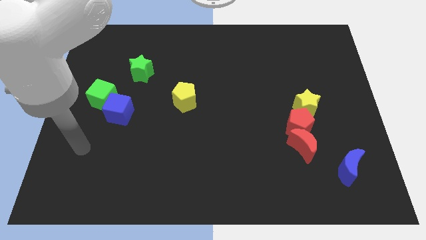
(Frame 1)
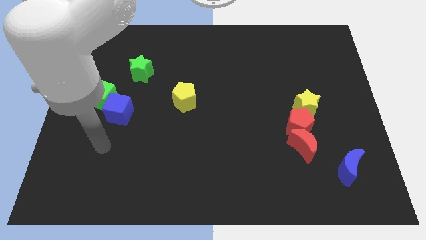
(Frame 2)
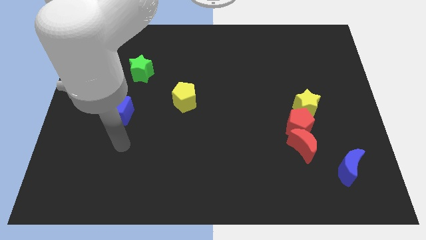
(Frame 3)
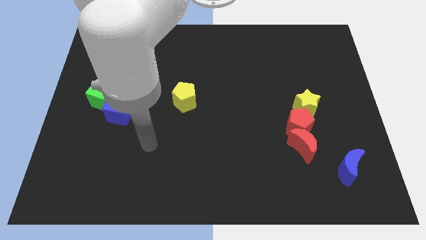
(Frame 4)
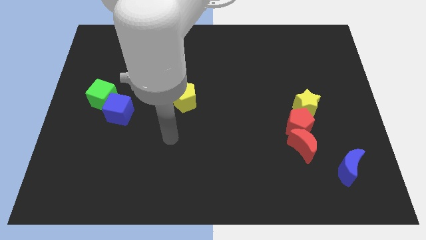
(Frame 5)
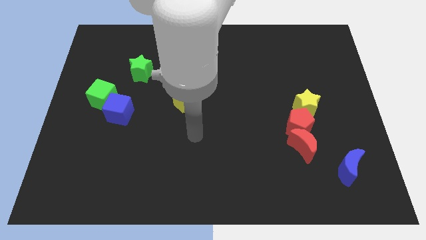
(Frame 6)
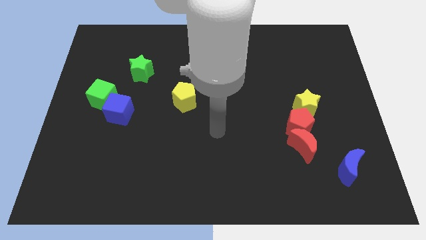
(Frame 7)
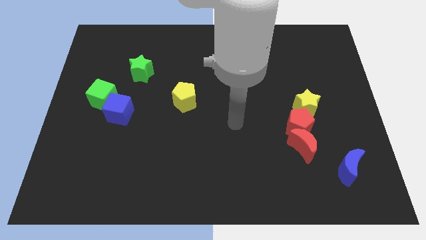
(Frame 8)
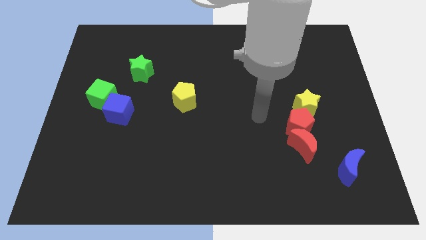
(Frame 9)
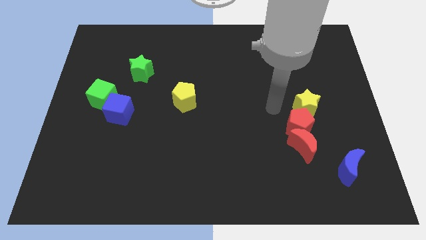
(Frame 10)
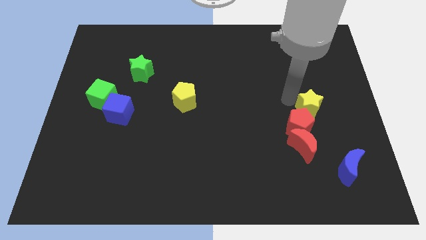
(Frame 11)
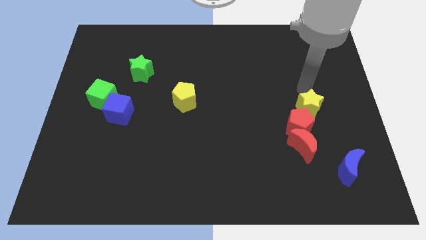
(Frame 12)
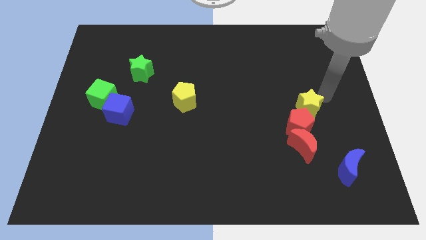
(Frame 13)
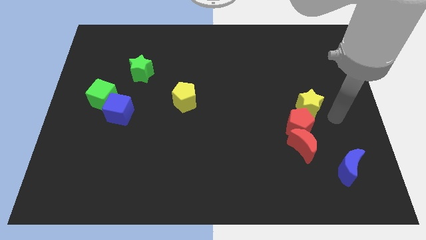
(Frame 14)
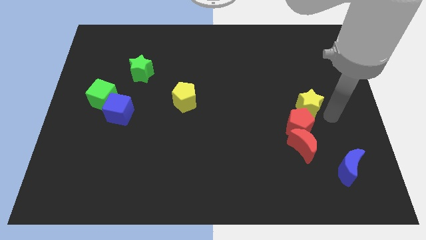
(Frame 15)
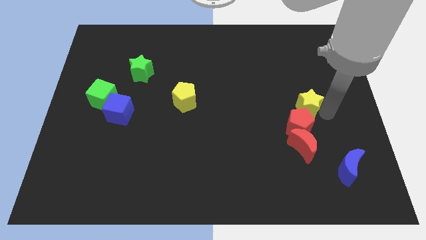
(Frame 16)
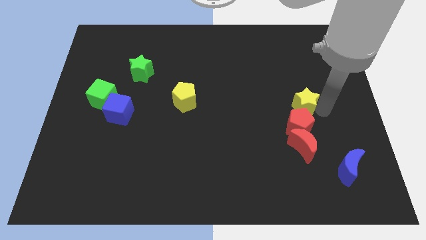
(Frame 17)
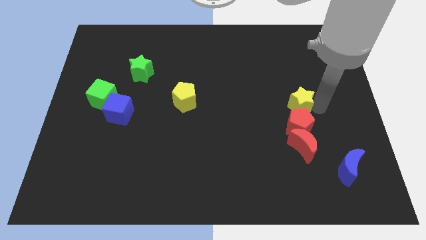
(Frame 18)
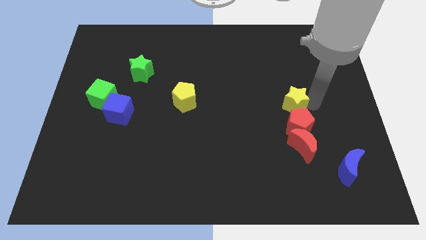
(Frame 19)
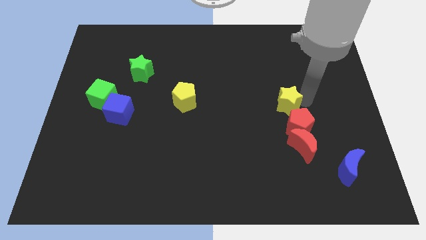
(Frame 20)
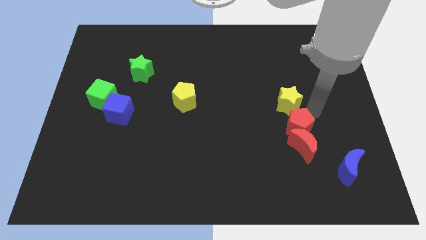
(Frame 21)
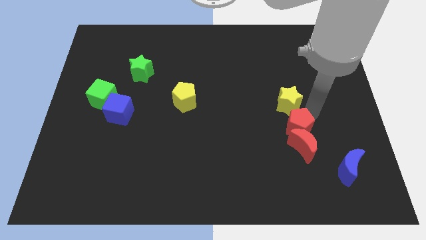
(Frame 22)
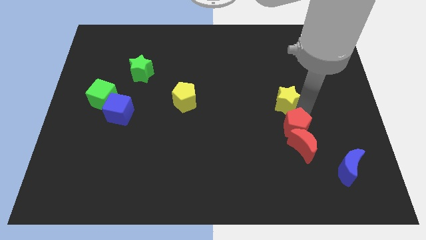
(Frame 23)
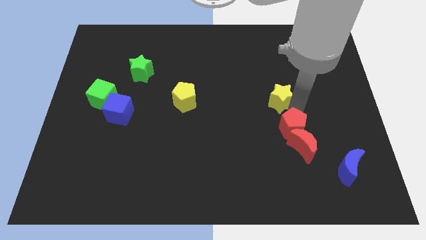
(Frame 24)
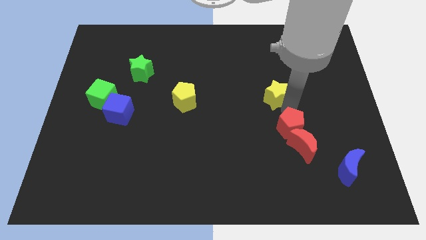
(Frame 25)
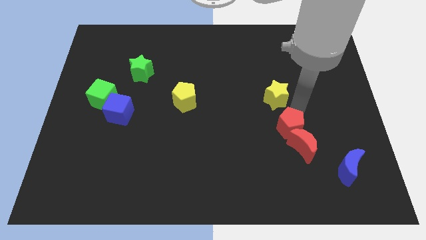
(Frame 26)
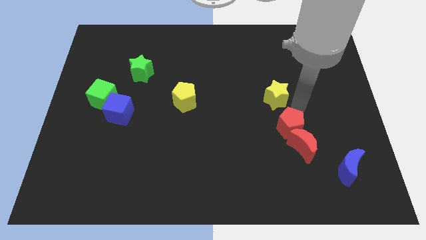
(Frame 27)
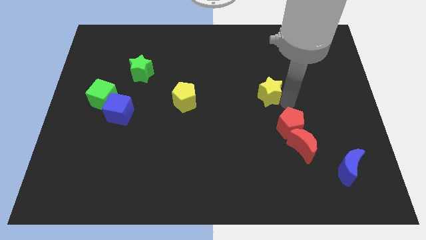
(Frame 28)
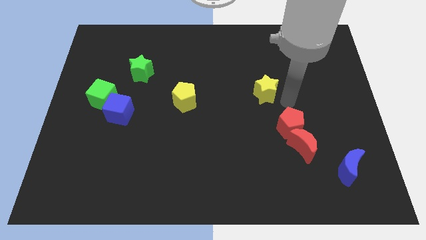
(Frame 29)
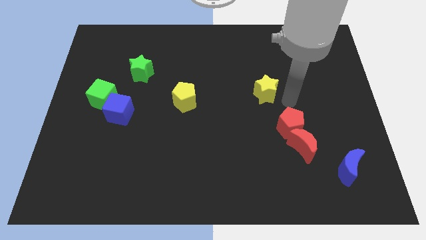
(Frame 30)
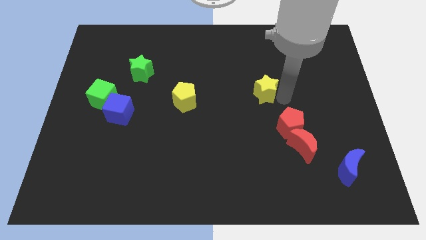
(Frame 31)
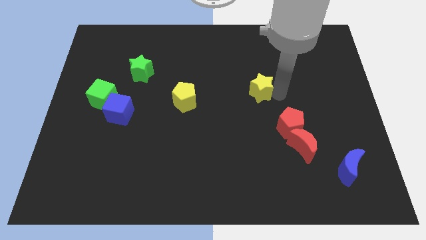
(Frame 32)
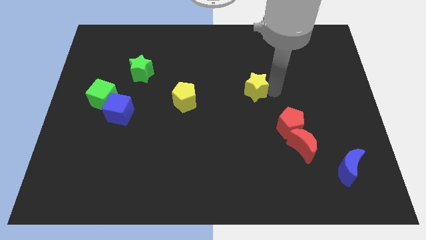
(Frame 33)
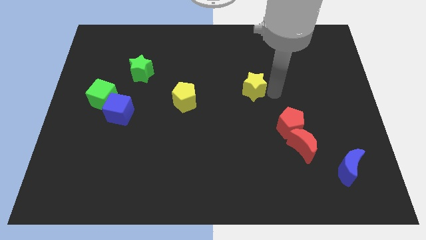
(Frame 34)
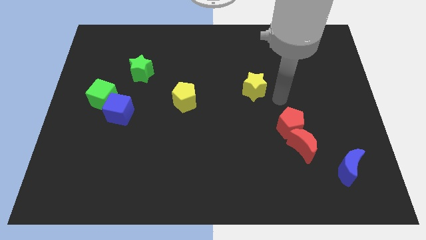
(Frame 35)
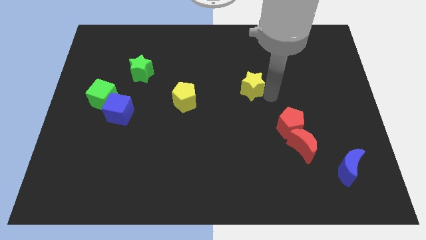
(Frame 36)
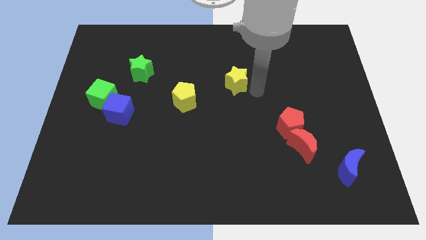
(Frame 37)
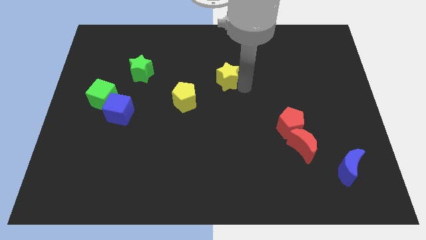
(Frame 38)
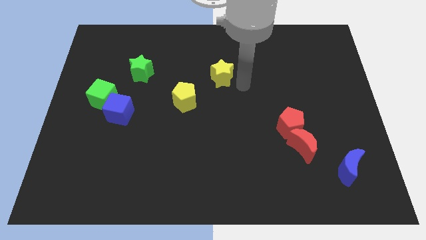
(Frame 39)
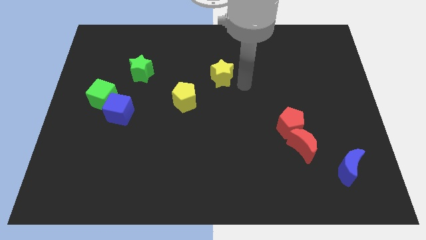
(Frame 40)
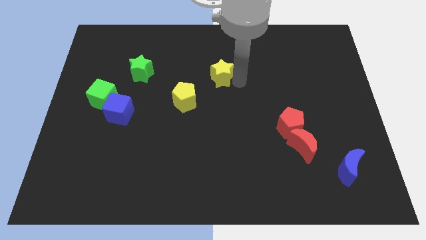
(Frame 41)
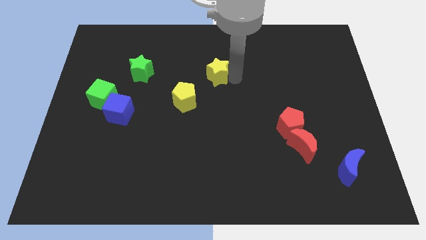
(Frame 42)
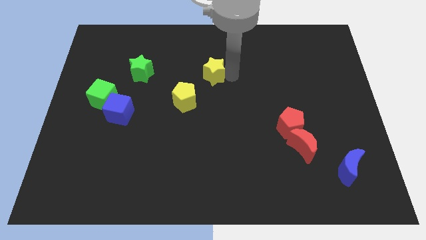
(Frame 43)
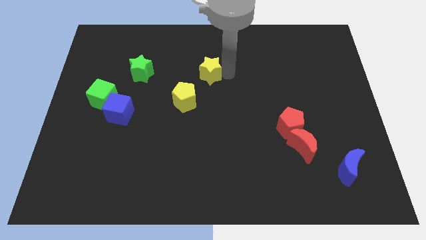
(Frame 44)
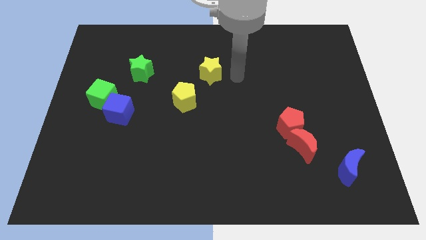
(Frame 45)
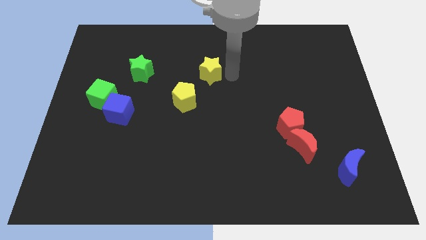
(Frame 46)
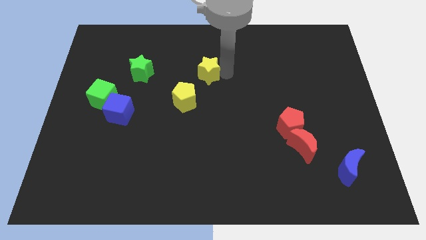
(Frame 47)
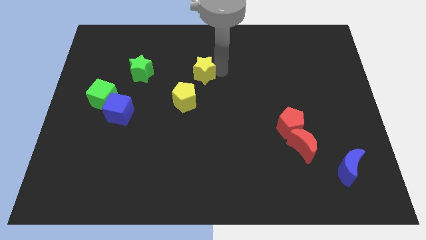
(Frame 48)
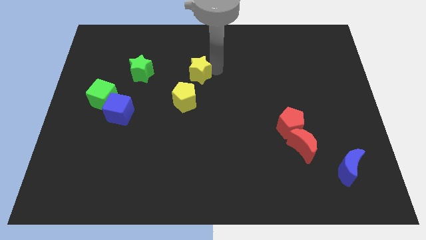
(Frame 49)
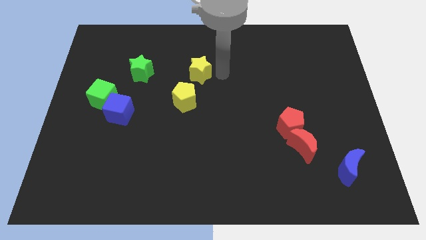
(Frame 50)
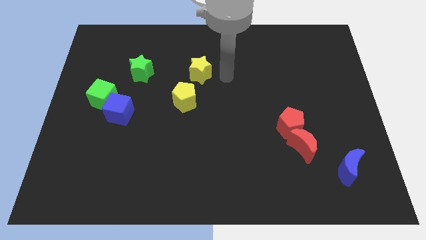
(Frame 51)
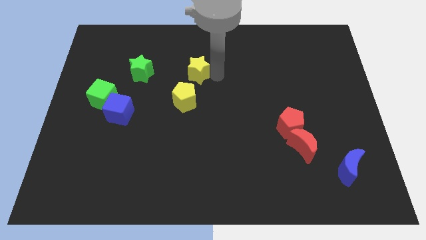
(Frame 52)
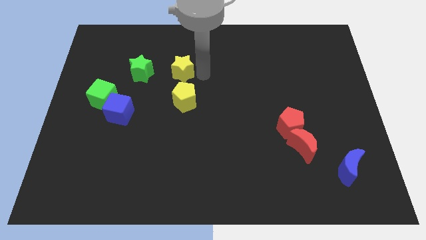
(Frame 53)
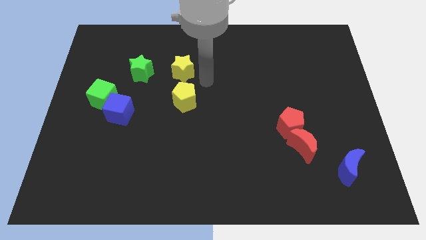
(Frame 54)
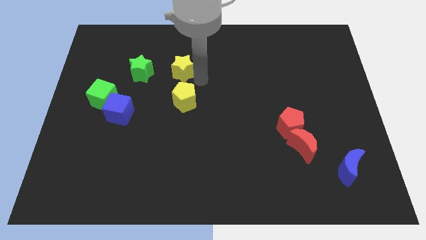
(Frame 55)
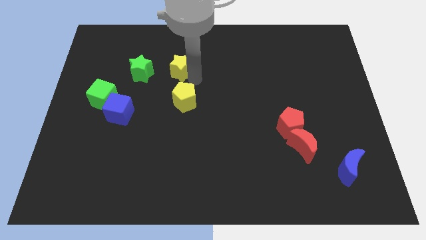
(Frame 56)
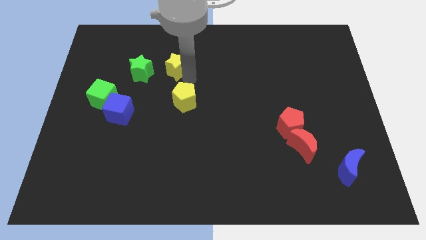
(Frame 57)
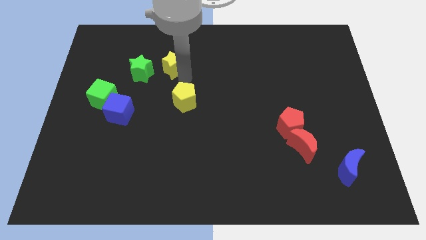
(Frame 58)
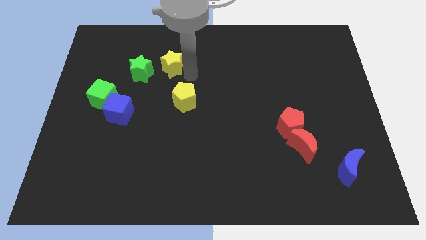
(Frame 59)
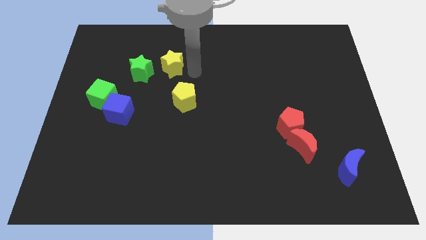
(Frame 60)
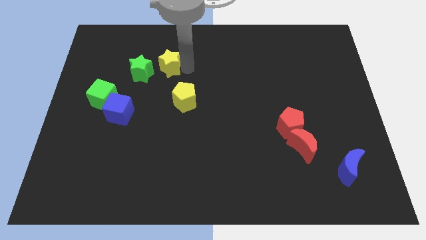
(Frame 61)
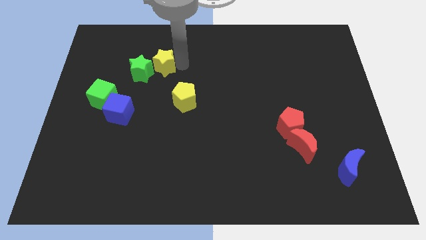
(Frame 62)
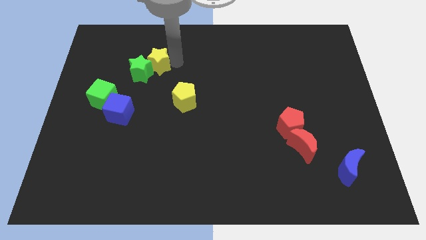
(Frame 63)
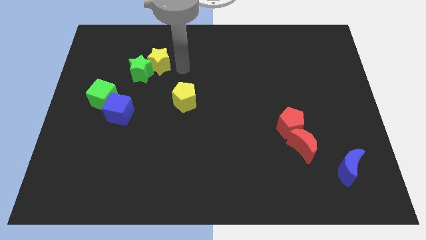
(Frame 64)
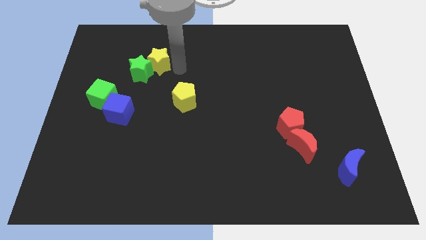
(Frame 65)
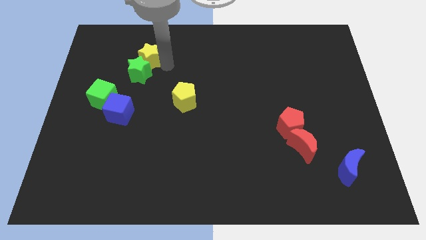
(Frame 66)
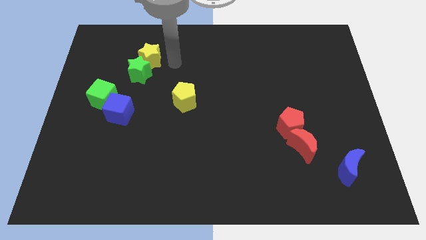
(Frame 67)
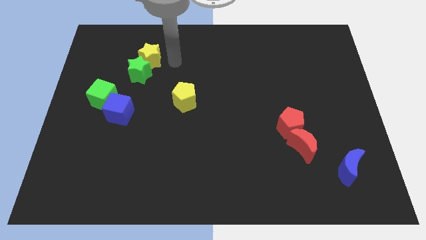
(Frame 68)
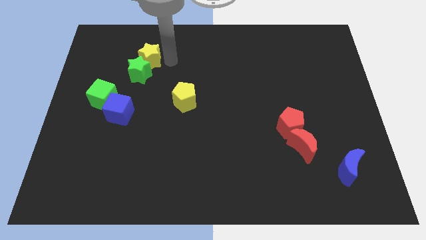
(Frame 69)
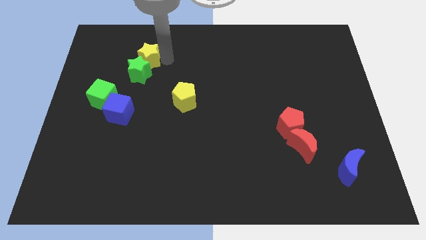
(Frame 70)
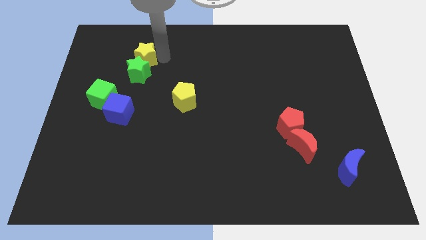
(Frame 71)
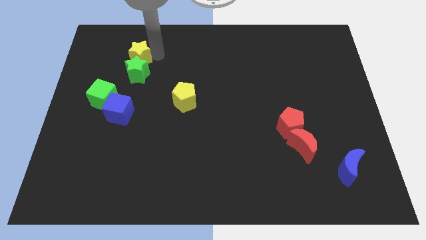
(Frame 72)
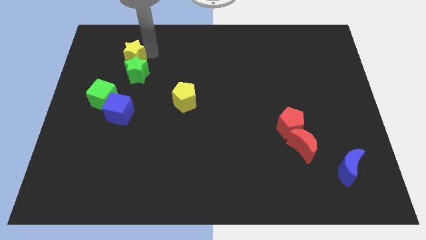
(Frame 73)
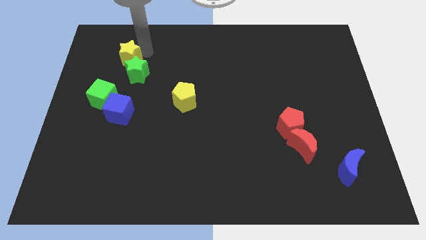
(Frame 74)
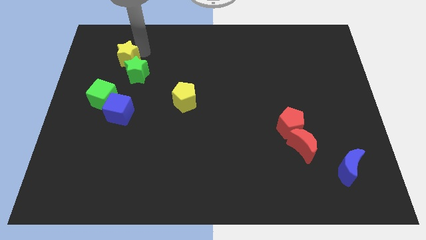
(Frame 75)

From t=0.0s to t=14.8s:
slide the yellow star to the top of the green cube
